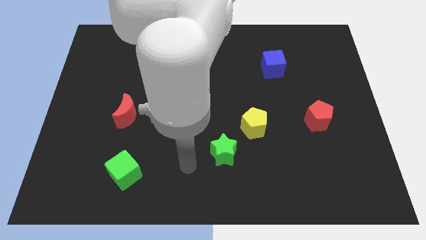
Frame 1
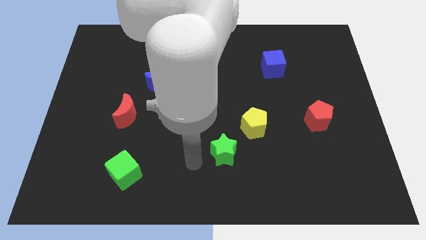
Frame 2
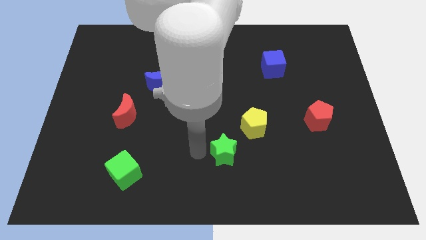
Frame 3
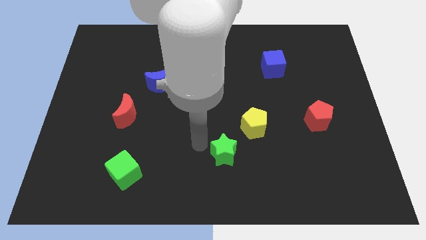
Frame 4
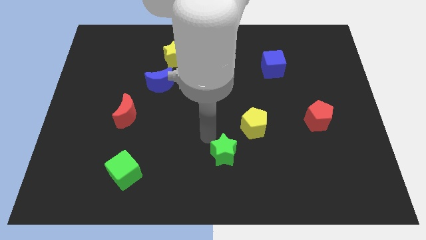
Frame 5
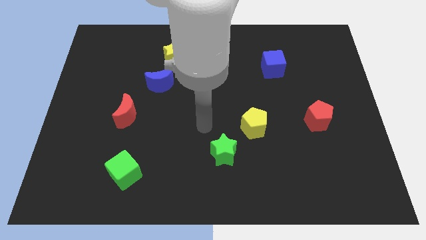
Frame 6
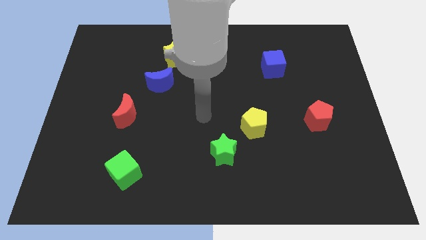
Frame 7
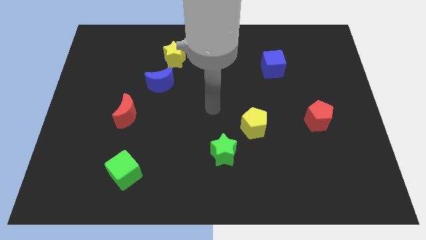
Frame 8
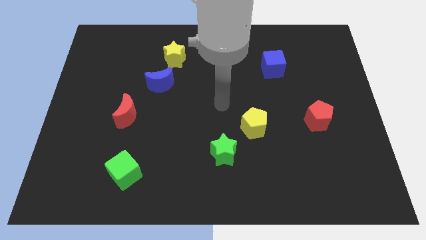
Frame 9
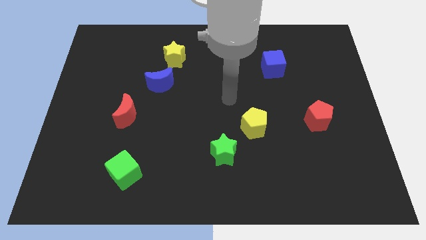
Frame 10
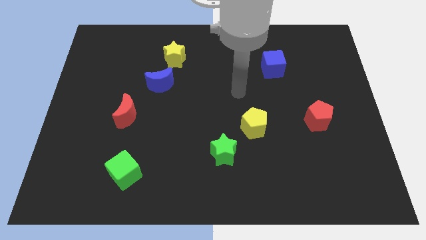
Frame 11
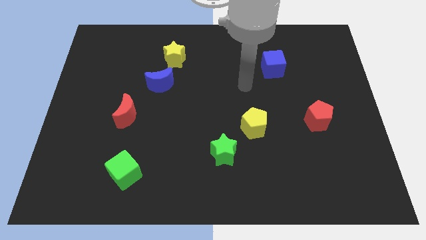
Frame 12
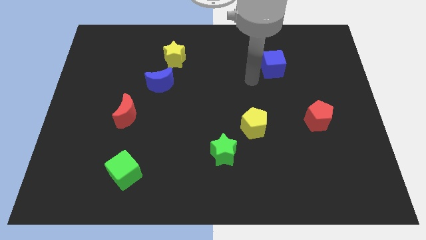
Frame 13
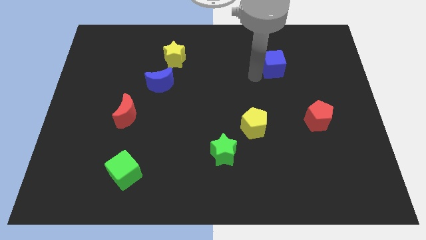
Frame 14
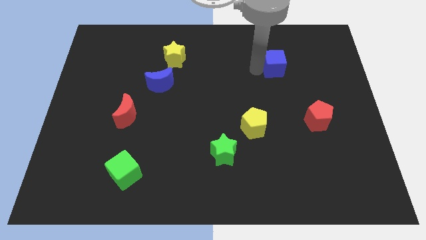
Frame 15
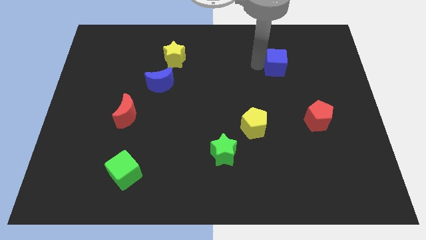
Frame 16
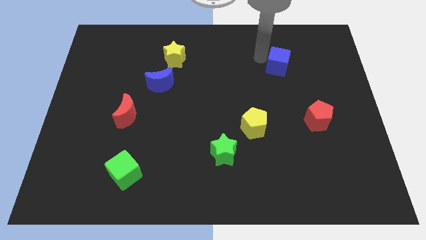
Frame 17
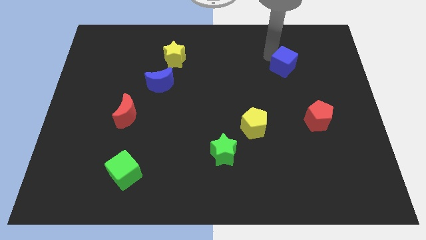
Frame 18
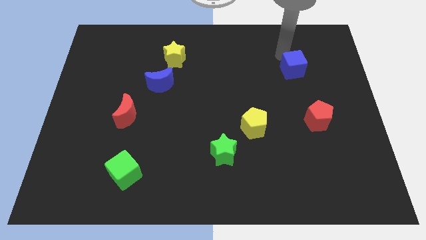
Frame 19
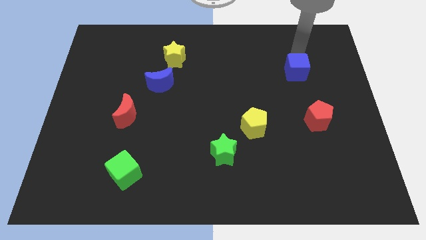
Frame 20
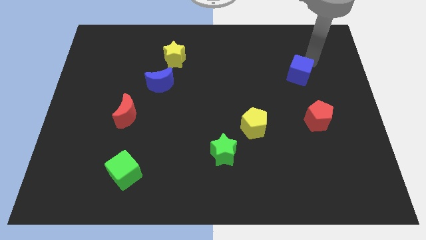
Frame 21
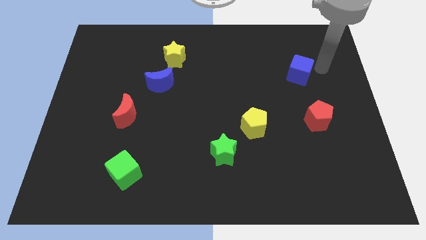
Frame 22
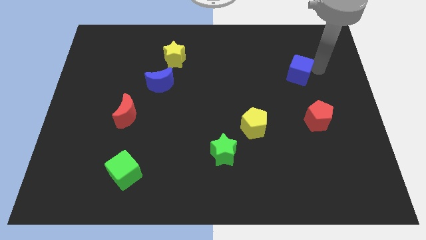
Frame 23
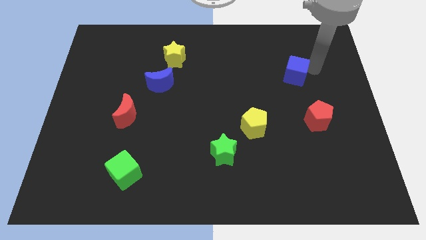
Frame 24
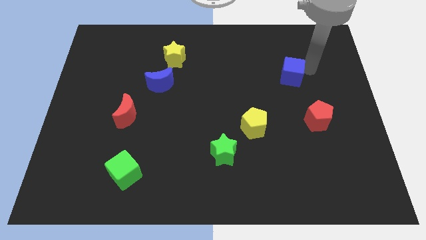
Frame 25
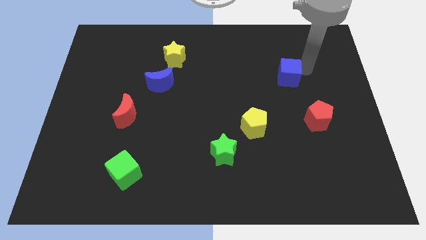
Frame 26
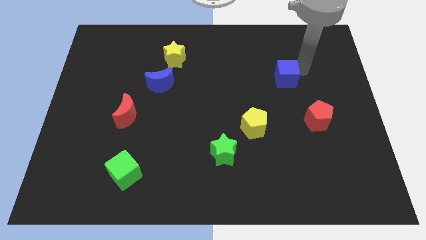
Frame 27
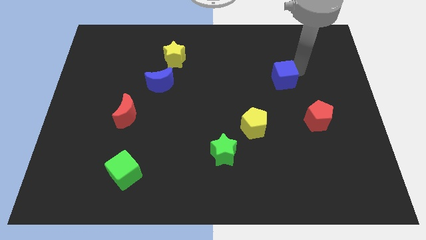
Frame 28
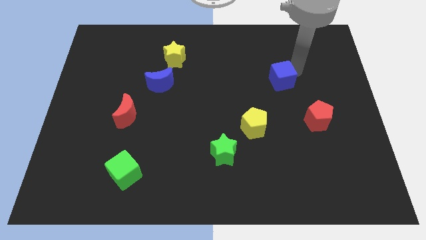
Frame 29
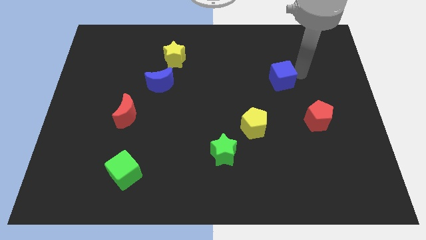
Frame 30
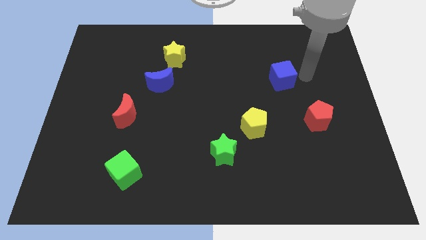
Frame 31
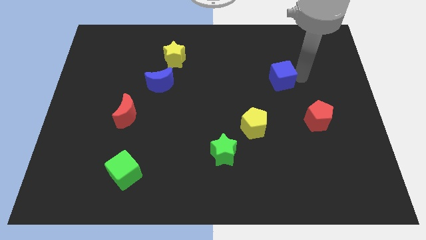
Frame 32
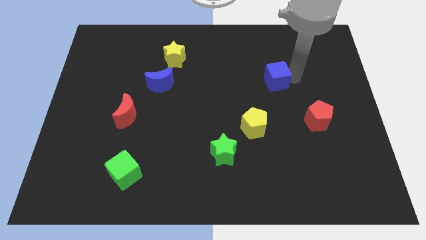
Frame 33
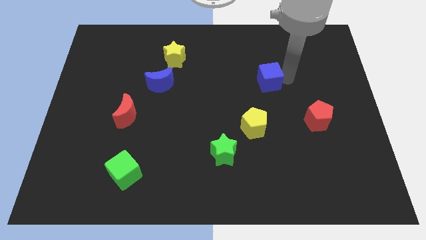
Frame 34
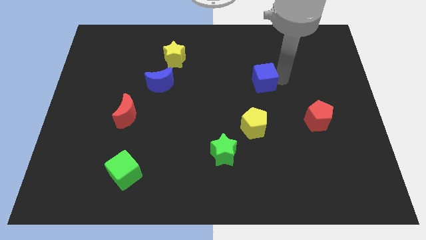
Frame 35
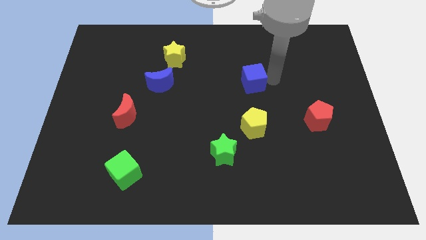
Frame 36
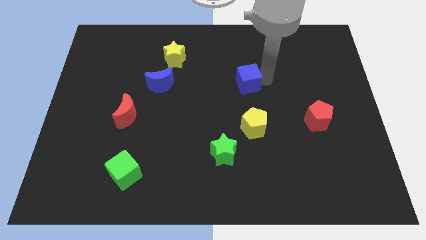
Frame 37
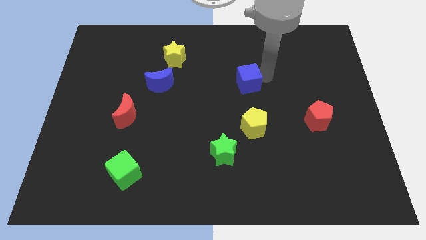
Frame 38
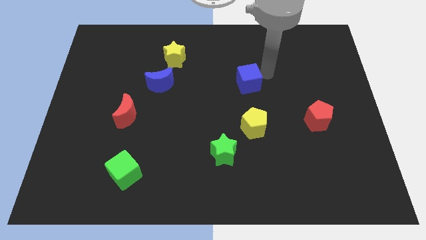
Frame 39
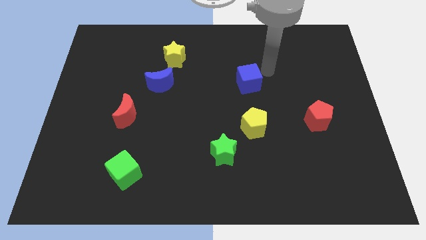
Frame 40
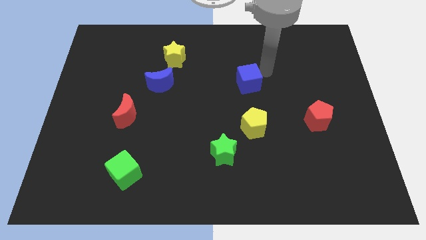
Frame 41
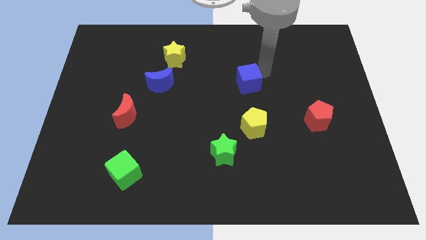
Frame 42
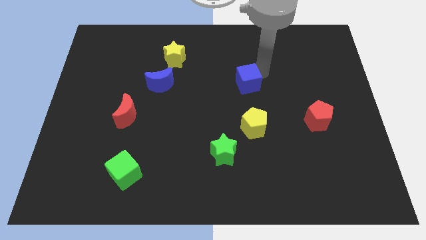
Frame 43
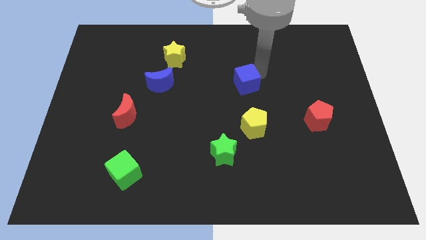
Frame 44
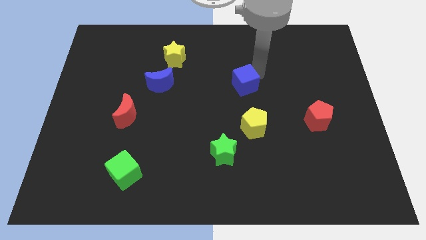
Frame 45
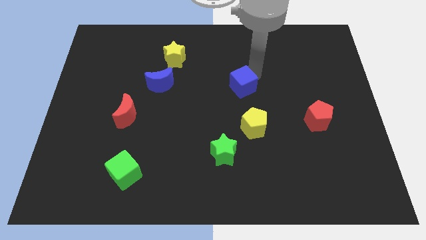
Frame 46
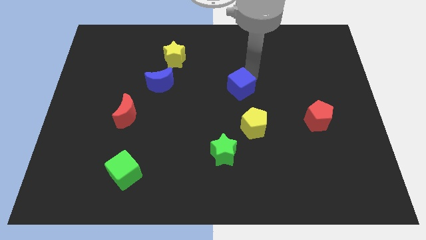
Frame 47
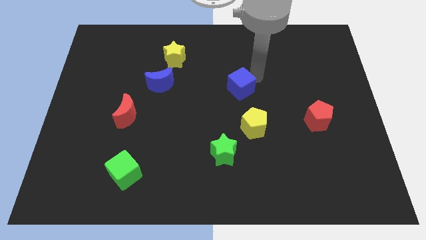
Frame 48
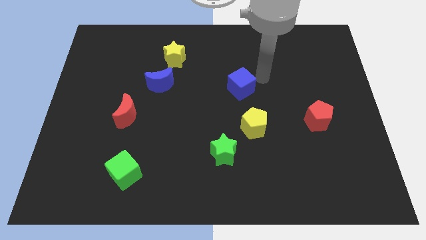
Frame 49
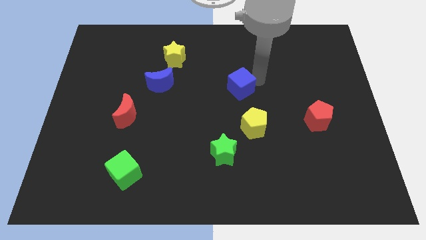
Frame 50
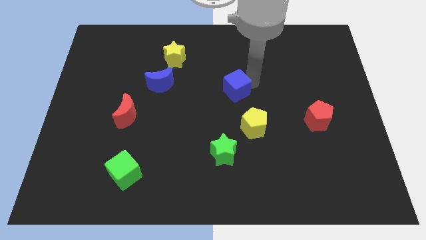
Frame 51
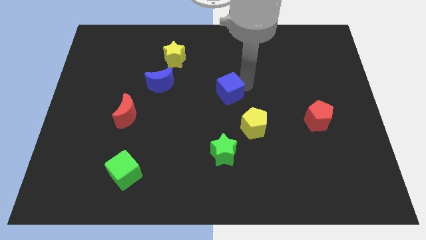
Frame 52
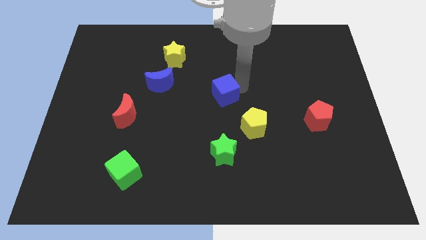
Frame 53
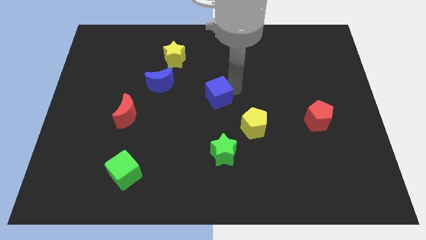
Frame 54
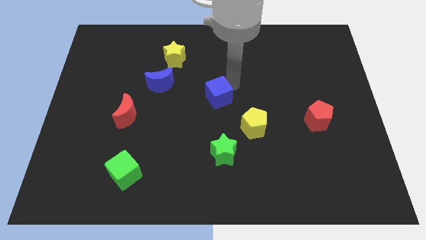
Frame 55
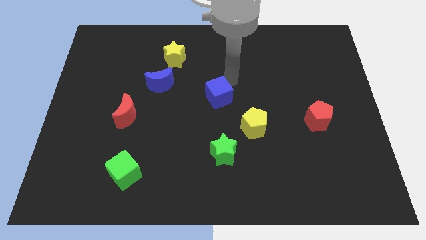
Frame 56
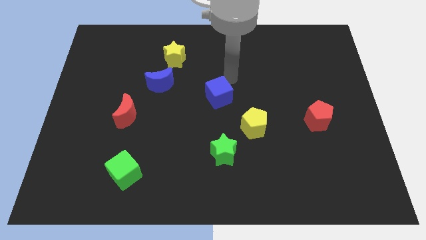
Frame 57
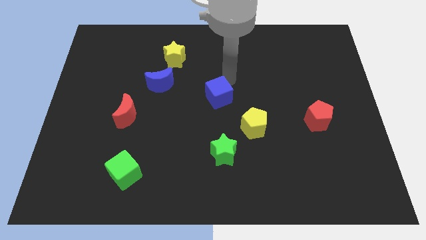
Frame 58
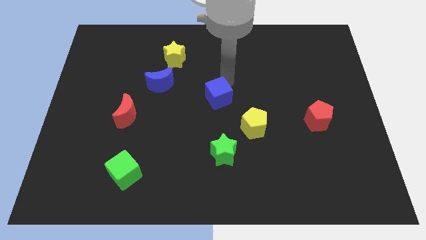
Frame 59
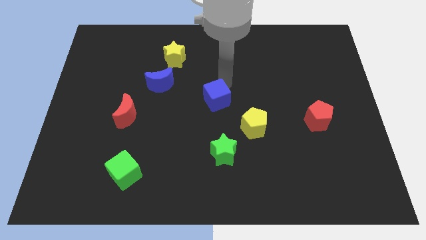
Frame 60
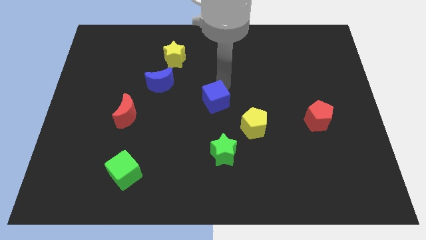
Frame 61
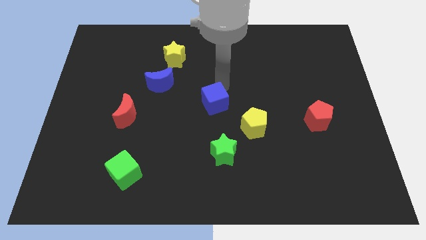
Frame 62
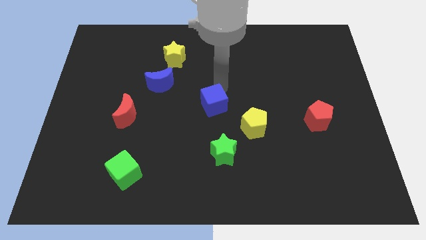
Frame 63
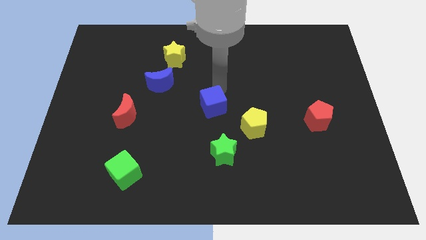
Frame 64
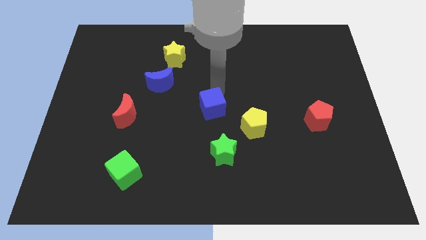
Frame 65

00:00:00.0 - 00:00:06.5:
slide the blue cube downwards and left

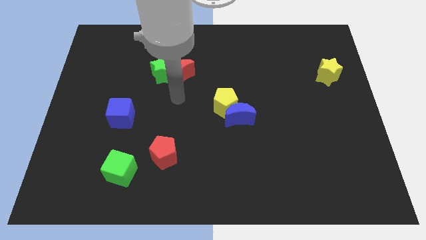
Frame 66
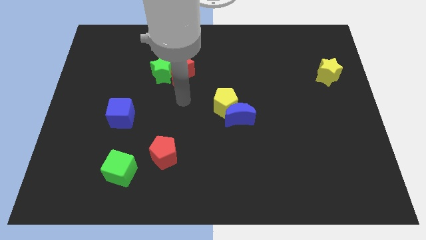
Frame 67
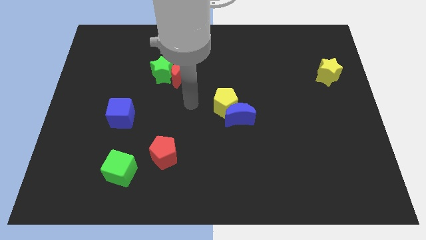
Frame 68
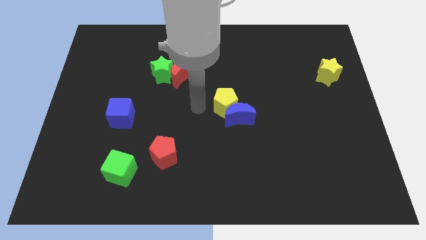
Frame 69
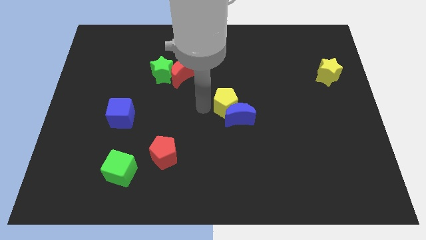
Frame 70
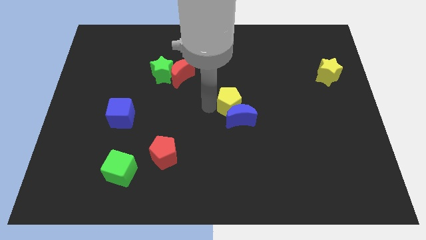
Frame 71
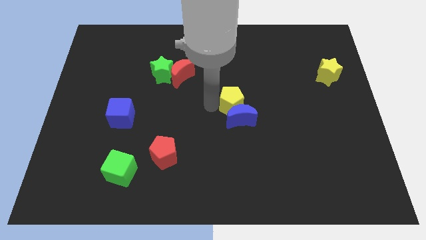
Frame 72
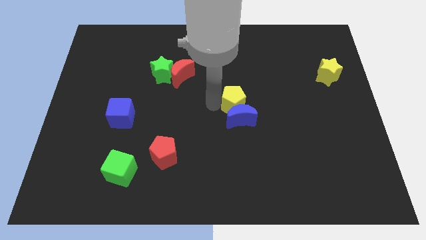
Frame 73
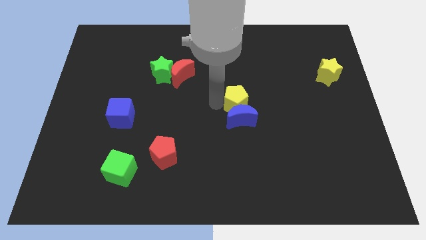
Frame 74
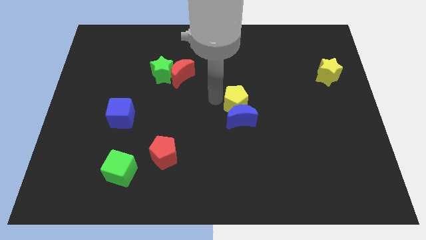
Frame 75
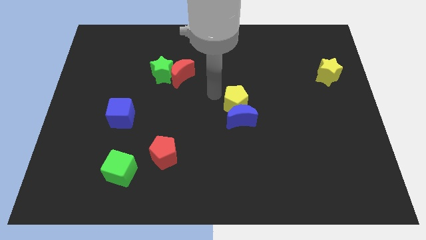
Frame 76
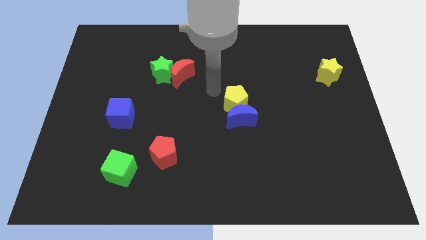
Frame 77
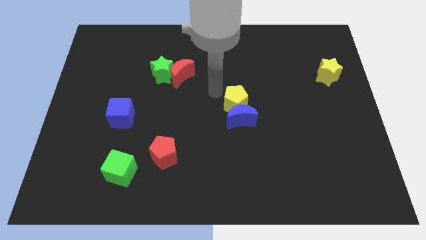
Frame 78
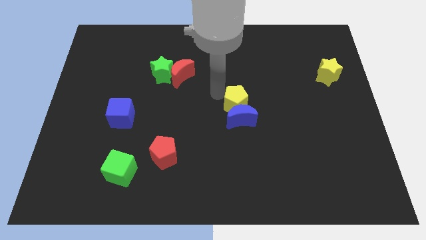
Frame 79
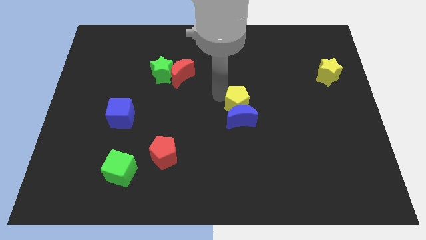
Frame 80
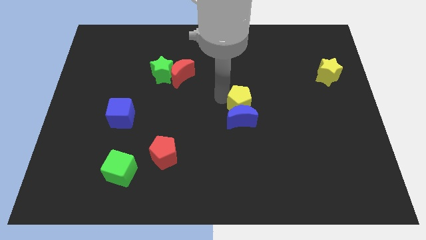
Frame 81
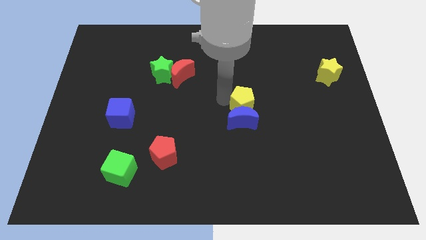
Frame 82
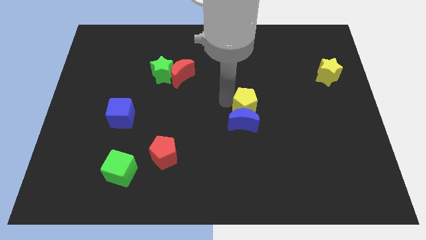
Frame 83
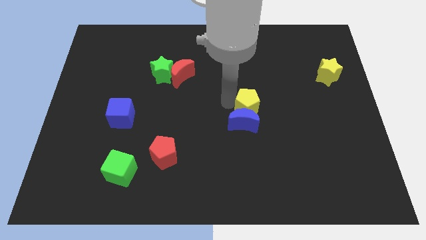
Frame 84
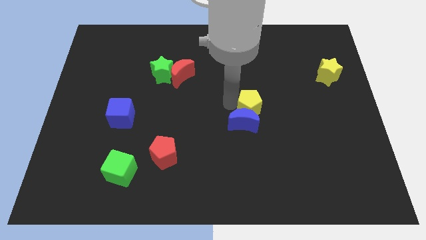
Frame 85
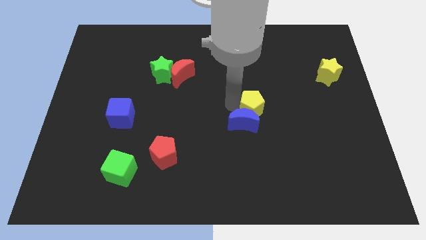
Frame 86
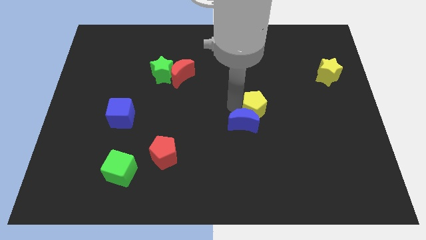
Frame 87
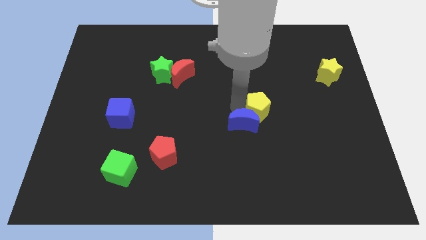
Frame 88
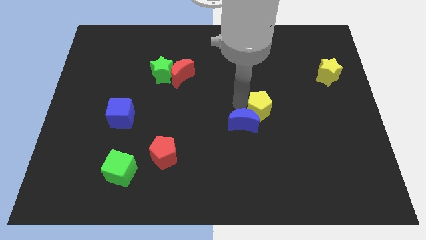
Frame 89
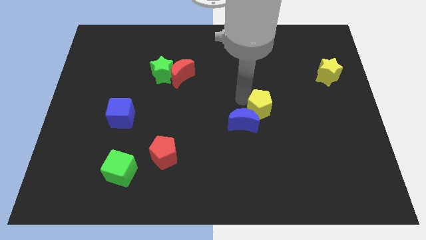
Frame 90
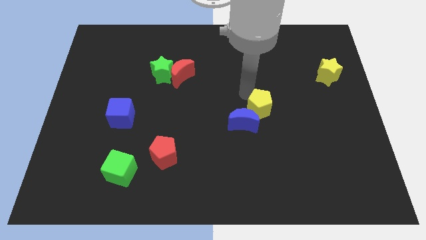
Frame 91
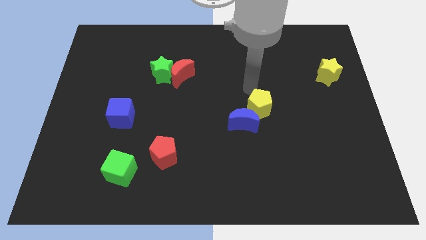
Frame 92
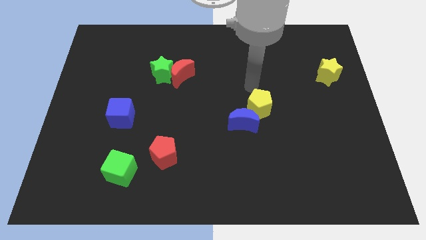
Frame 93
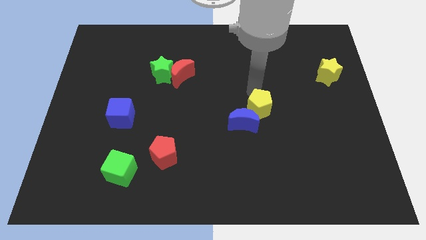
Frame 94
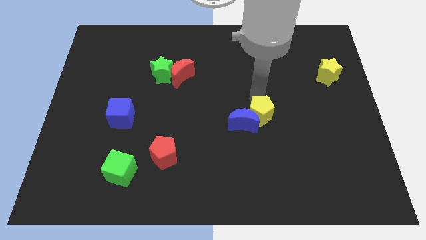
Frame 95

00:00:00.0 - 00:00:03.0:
slightly push the yellow pentagon downwards and to the right
